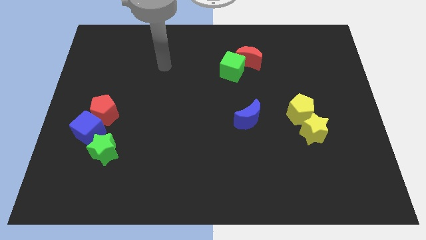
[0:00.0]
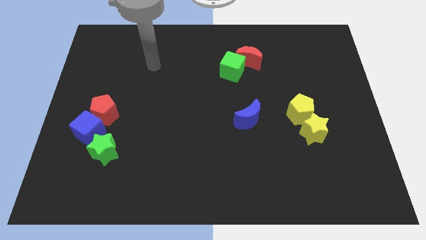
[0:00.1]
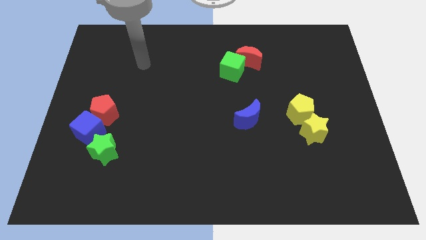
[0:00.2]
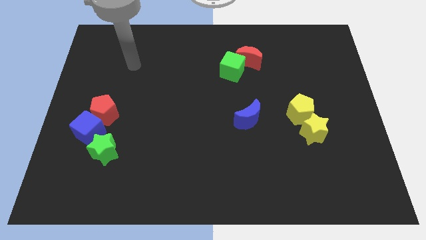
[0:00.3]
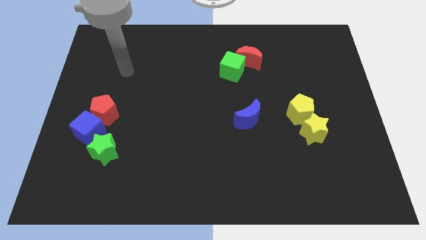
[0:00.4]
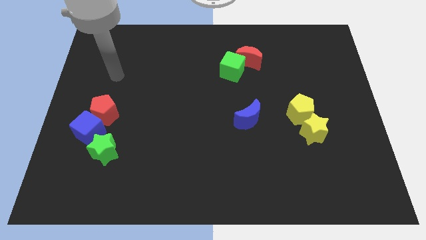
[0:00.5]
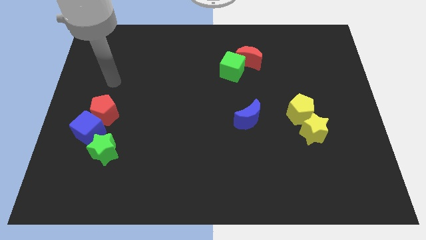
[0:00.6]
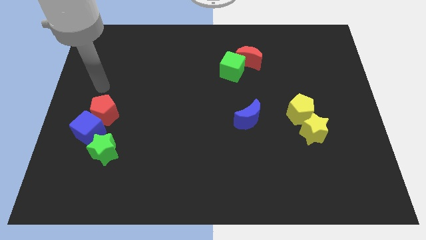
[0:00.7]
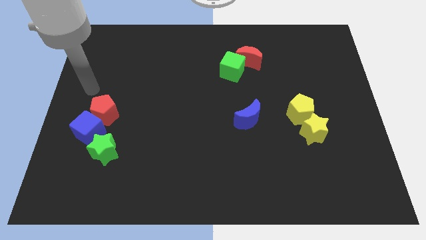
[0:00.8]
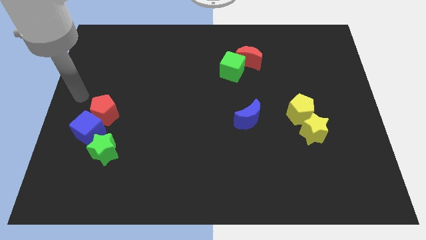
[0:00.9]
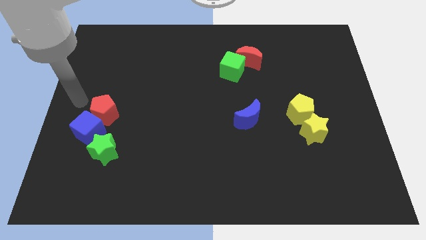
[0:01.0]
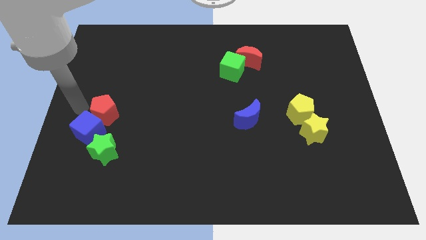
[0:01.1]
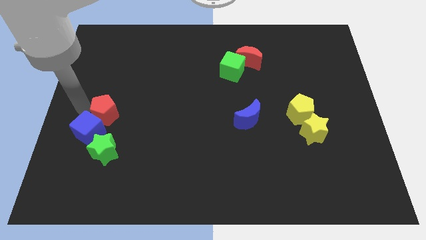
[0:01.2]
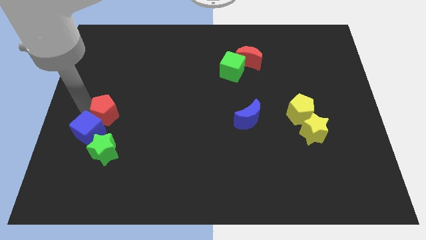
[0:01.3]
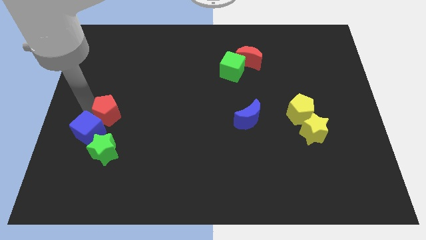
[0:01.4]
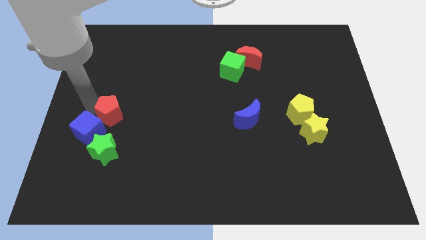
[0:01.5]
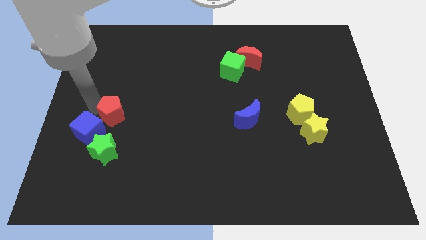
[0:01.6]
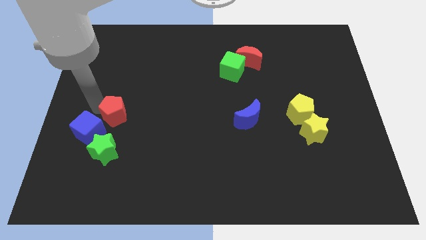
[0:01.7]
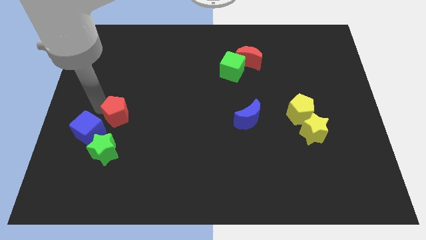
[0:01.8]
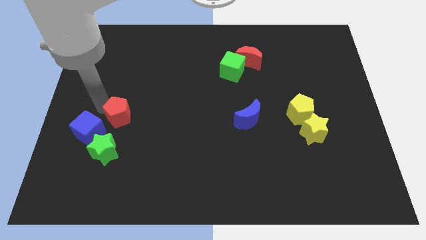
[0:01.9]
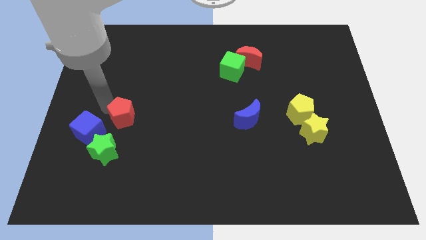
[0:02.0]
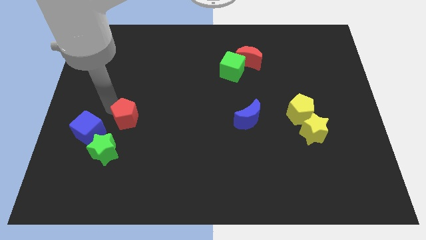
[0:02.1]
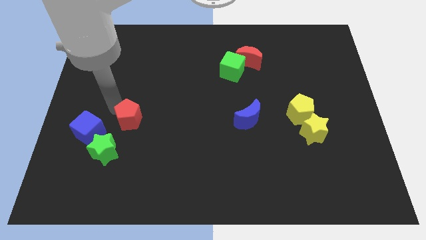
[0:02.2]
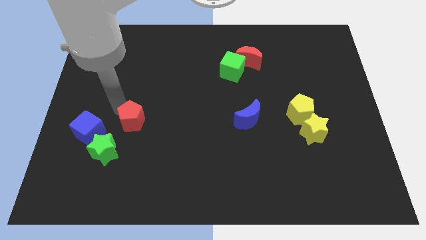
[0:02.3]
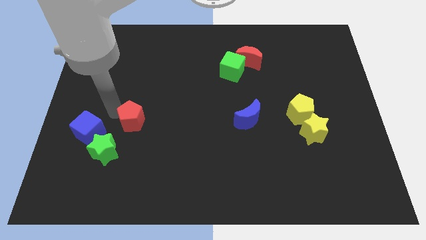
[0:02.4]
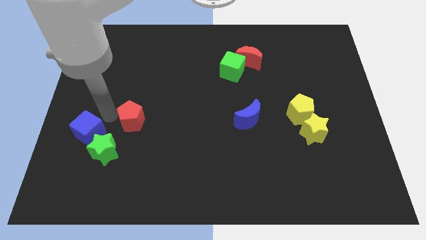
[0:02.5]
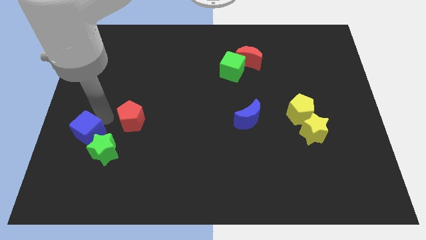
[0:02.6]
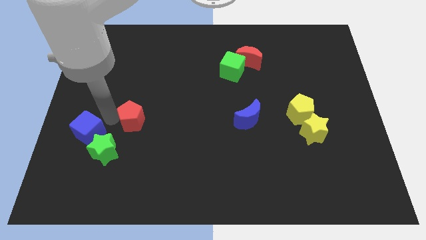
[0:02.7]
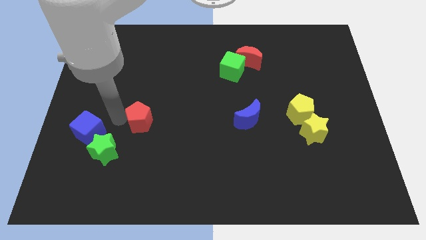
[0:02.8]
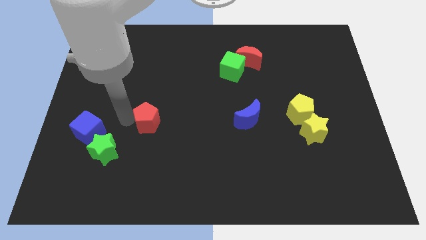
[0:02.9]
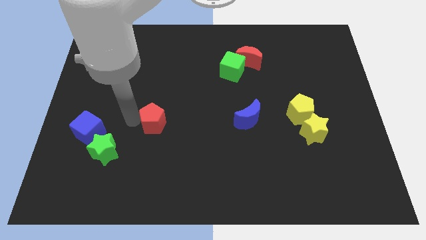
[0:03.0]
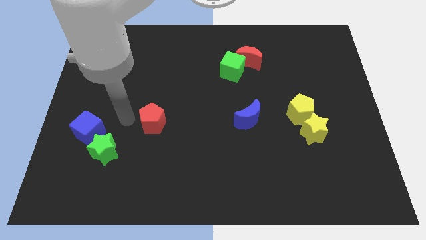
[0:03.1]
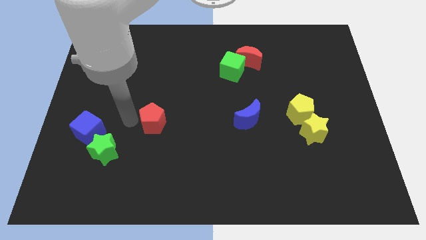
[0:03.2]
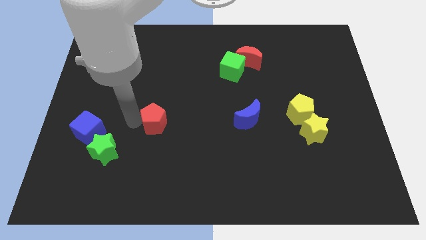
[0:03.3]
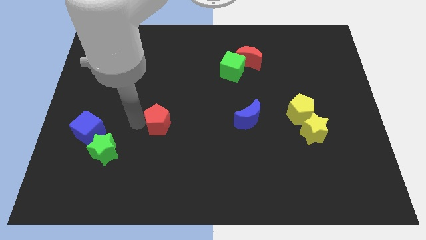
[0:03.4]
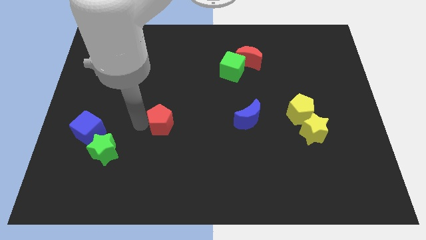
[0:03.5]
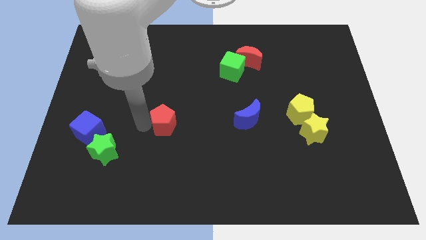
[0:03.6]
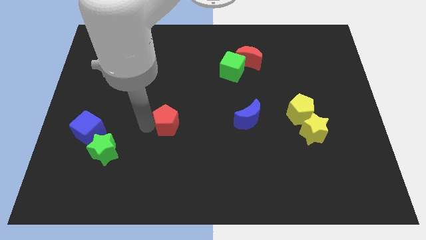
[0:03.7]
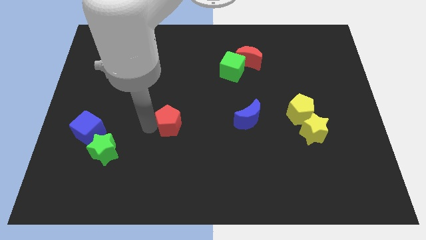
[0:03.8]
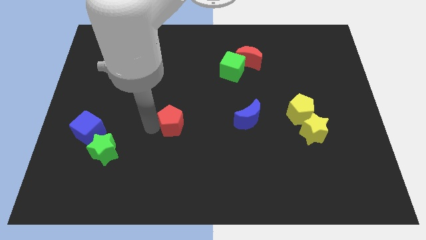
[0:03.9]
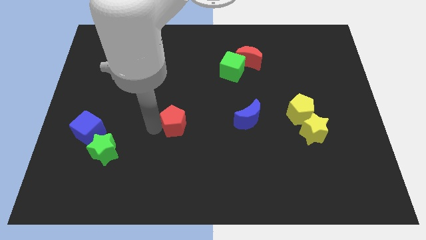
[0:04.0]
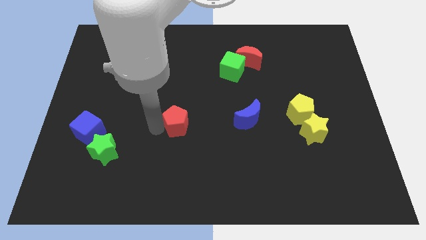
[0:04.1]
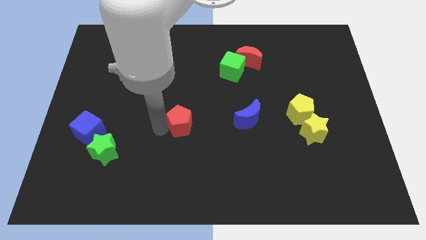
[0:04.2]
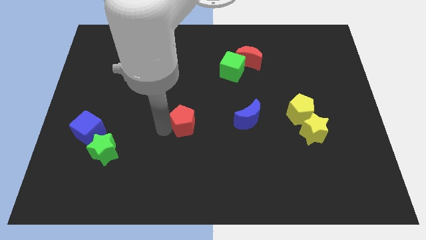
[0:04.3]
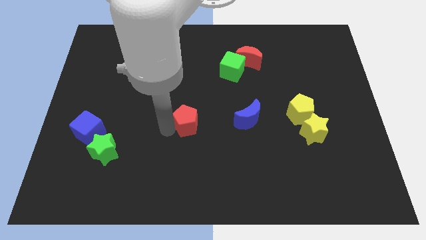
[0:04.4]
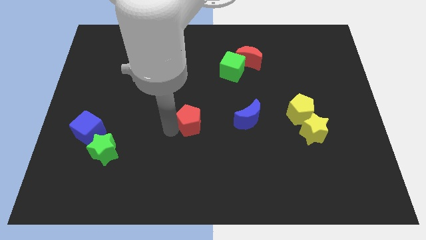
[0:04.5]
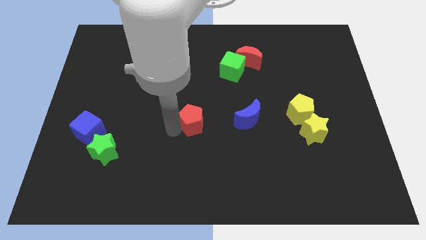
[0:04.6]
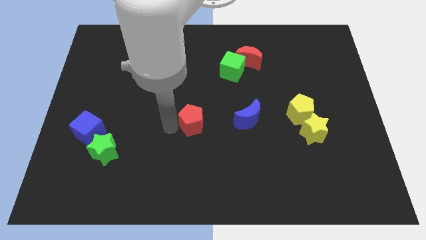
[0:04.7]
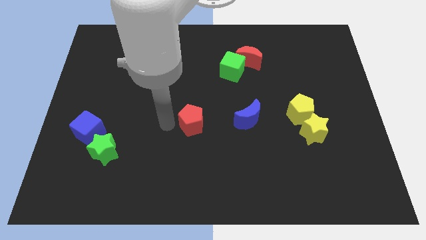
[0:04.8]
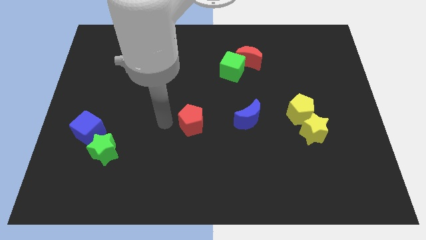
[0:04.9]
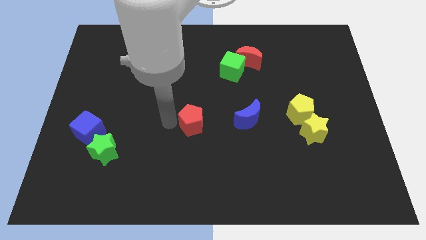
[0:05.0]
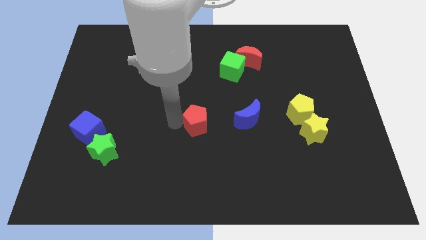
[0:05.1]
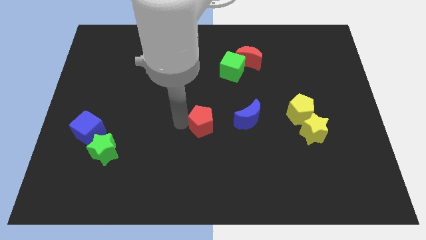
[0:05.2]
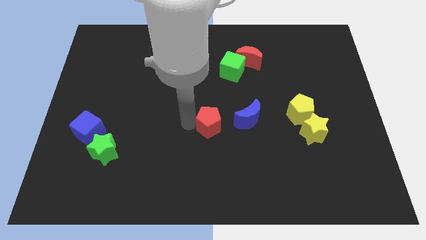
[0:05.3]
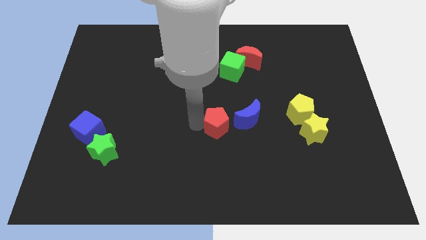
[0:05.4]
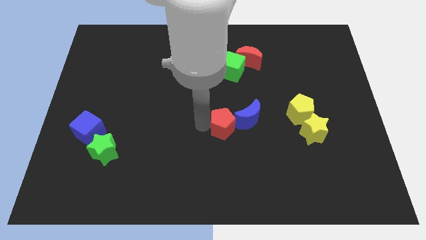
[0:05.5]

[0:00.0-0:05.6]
put the red pentagon towards the blue moon

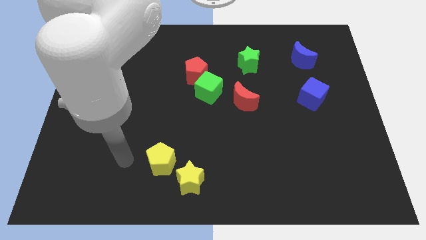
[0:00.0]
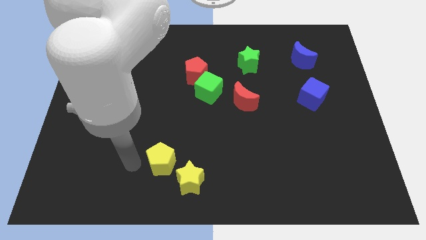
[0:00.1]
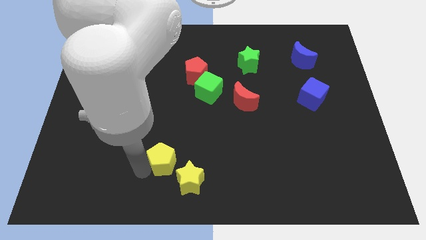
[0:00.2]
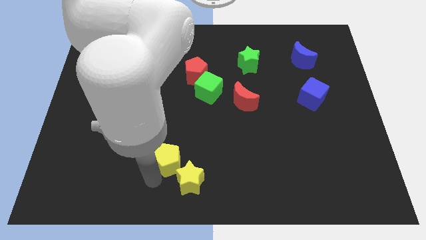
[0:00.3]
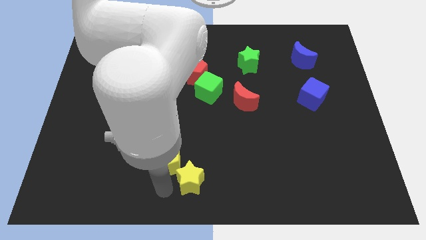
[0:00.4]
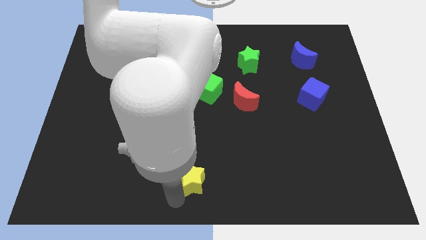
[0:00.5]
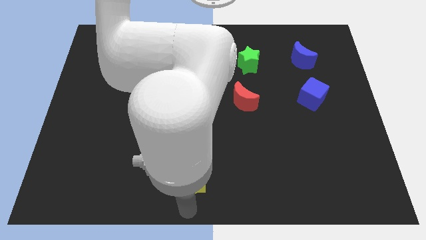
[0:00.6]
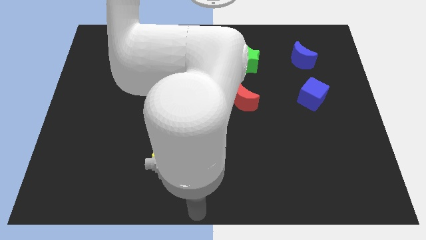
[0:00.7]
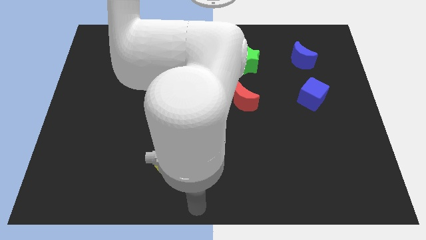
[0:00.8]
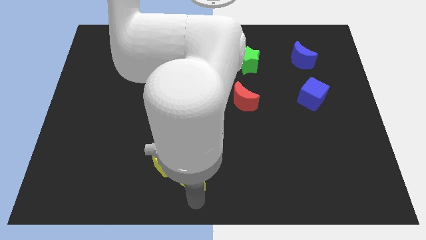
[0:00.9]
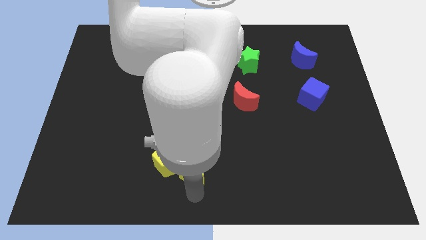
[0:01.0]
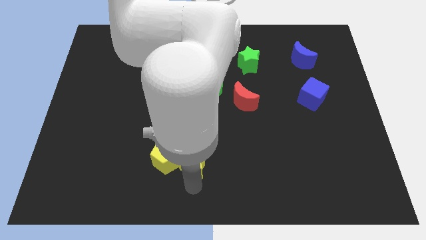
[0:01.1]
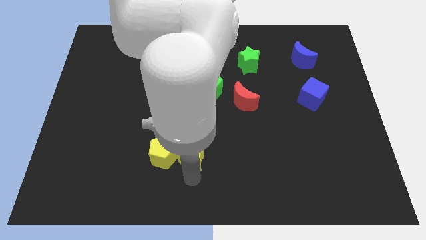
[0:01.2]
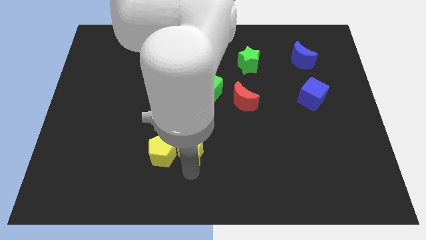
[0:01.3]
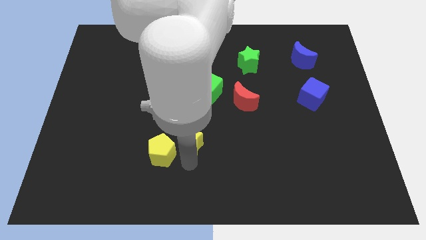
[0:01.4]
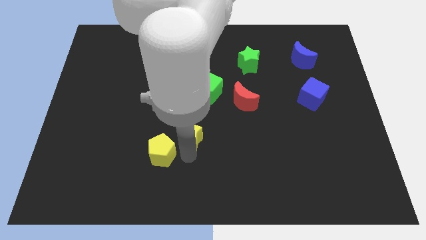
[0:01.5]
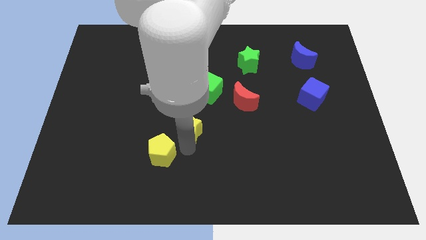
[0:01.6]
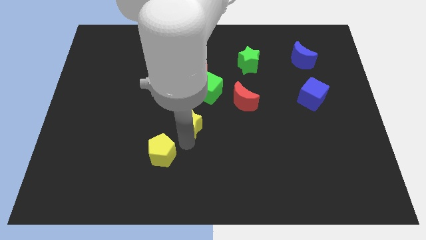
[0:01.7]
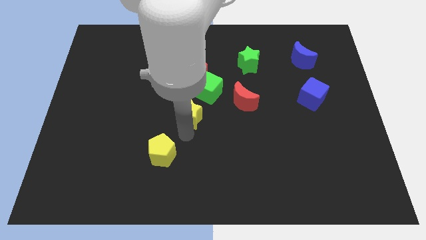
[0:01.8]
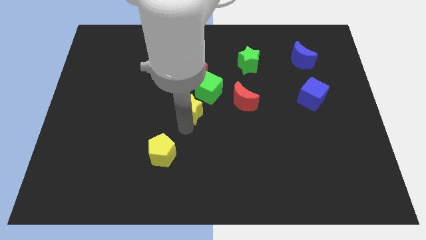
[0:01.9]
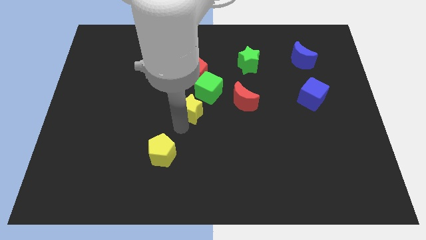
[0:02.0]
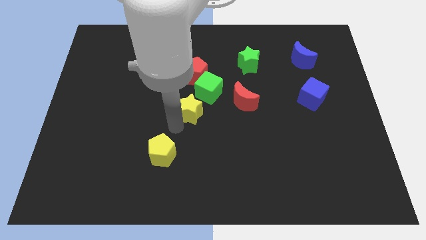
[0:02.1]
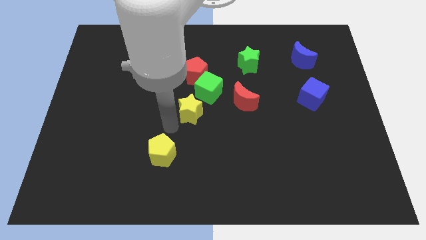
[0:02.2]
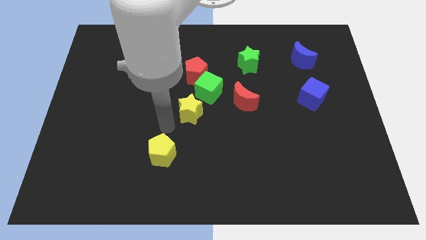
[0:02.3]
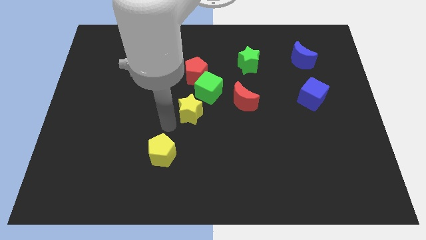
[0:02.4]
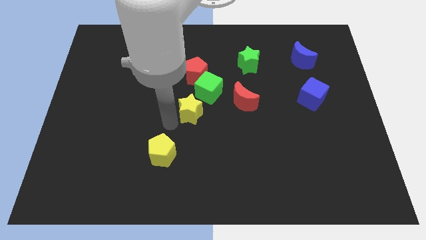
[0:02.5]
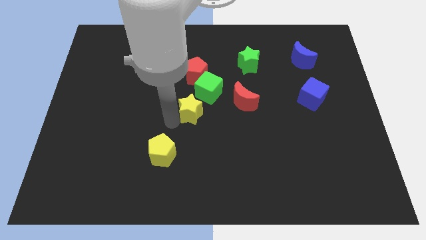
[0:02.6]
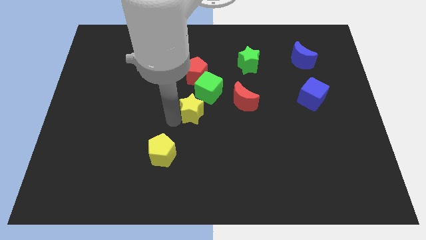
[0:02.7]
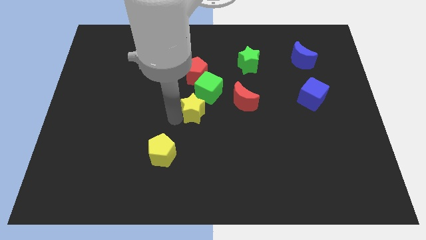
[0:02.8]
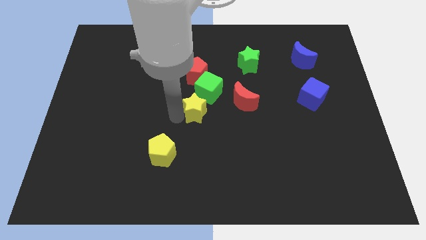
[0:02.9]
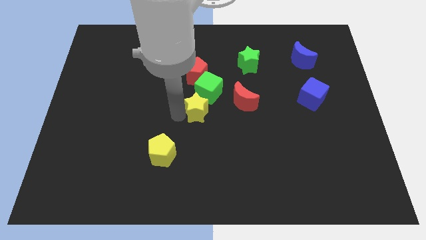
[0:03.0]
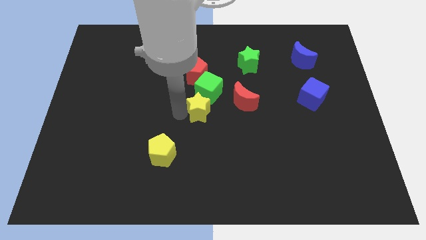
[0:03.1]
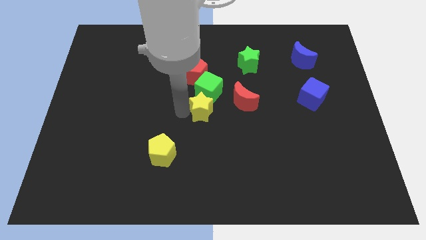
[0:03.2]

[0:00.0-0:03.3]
slide the yellow star to the green cube
